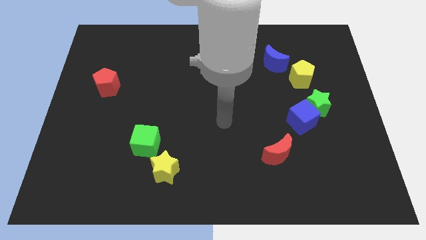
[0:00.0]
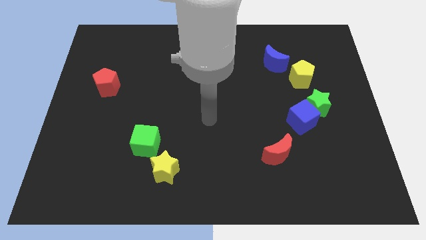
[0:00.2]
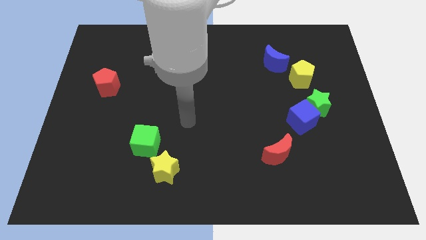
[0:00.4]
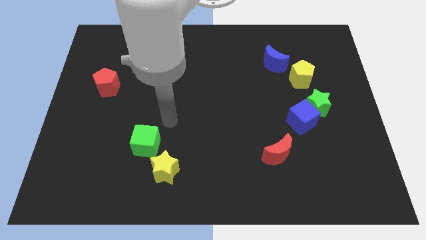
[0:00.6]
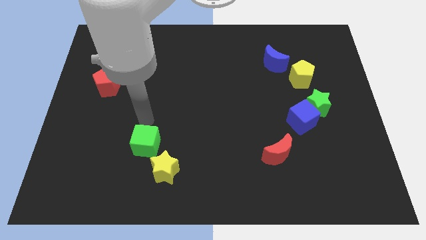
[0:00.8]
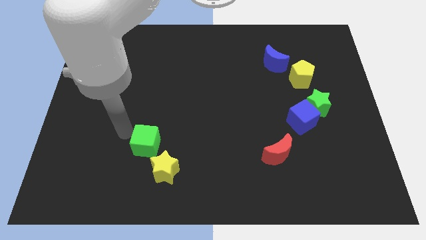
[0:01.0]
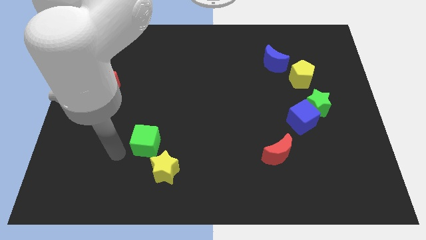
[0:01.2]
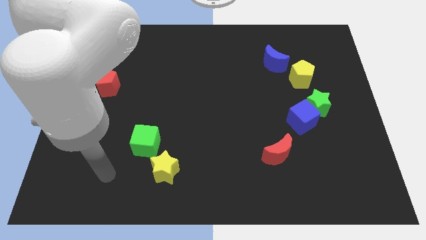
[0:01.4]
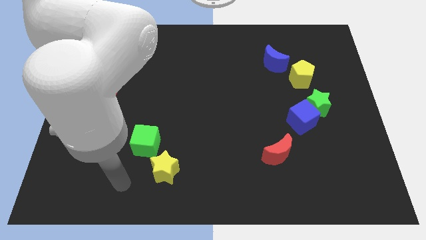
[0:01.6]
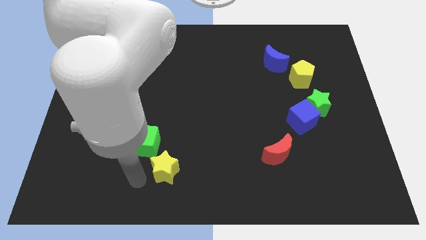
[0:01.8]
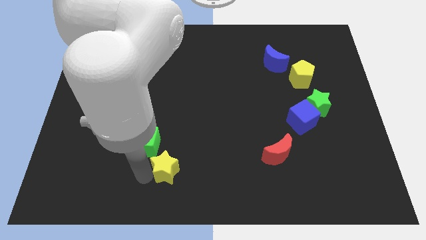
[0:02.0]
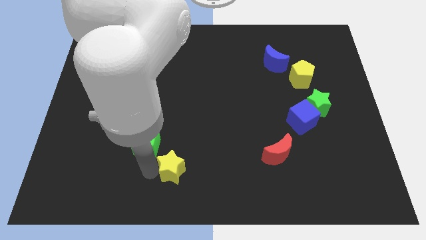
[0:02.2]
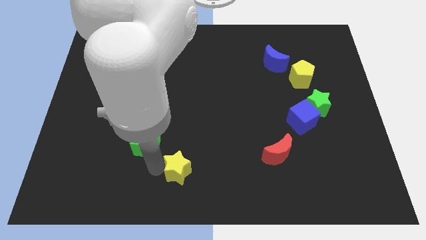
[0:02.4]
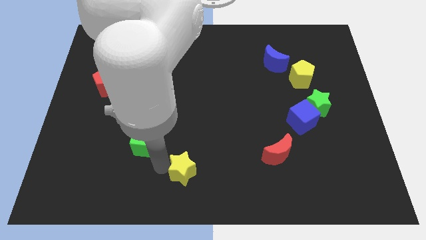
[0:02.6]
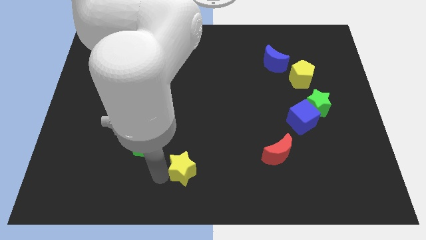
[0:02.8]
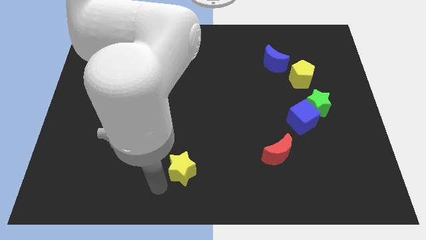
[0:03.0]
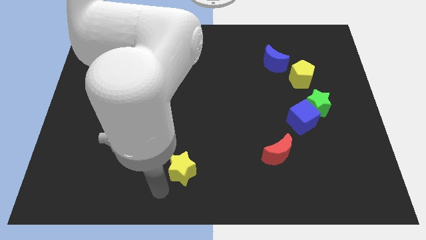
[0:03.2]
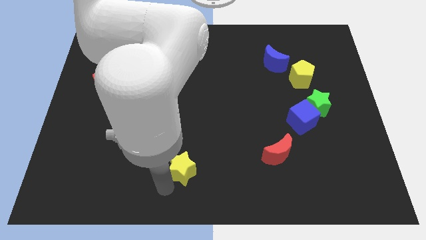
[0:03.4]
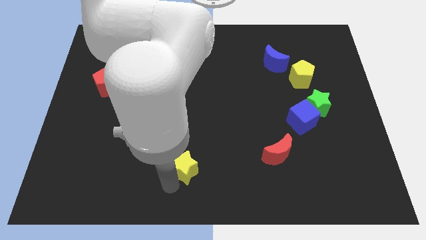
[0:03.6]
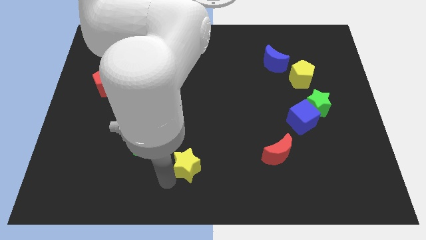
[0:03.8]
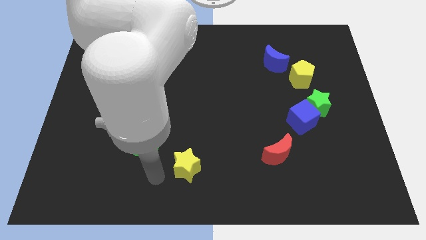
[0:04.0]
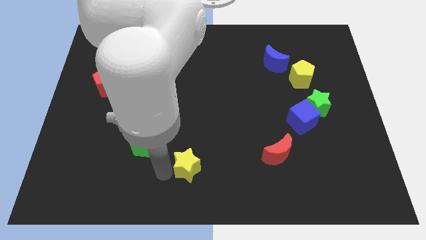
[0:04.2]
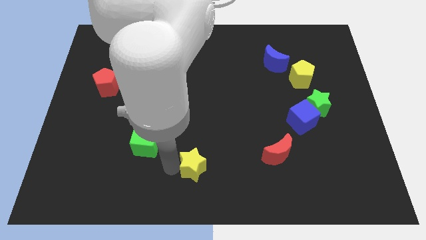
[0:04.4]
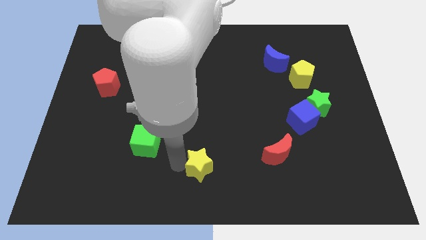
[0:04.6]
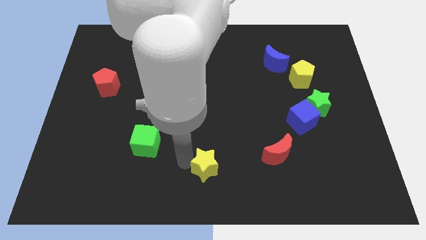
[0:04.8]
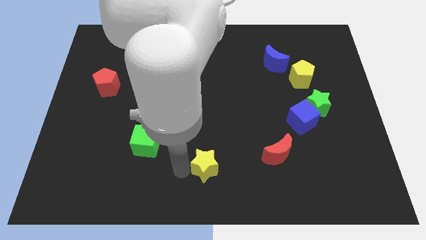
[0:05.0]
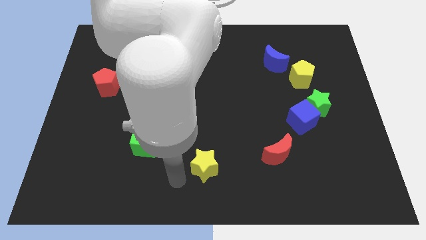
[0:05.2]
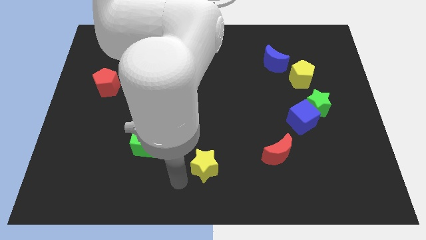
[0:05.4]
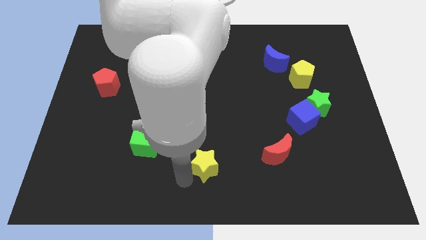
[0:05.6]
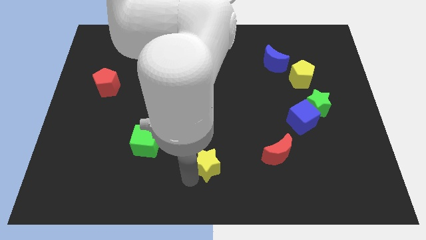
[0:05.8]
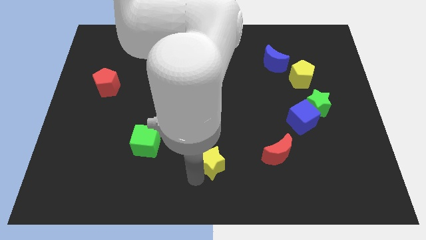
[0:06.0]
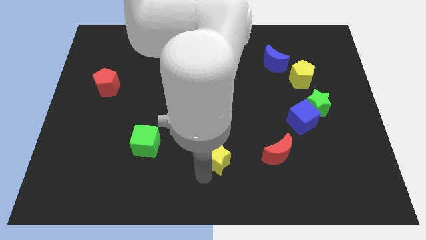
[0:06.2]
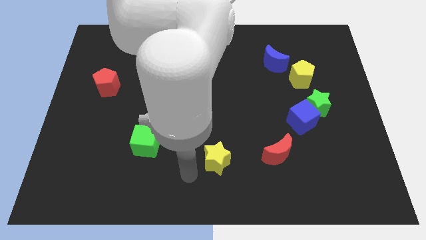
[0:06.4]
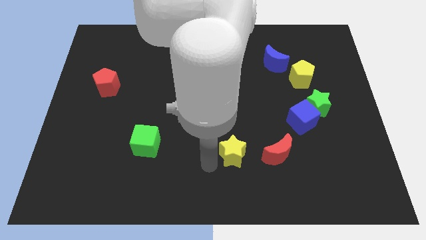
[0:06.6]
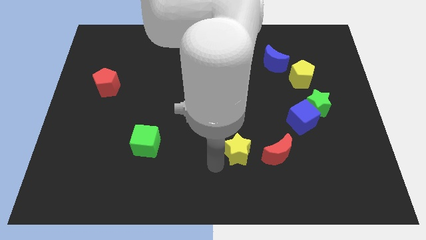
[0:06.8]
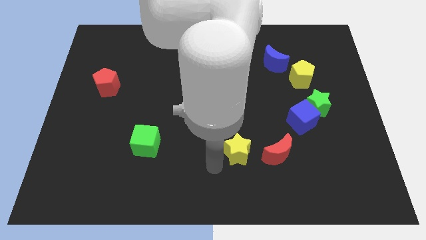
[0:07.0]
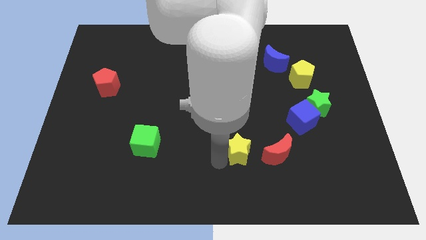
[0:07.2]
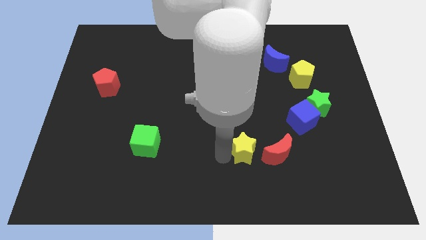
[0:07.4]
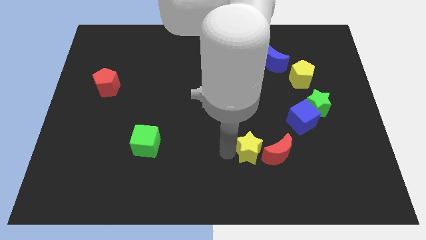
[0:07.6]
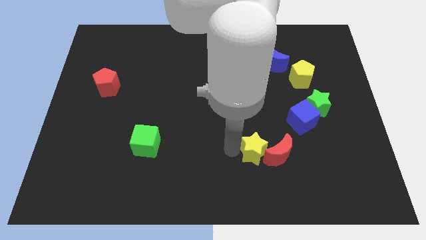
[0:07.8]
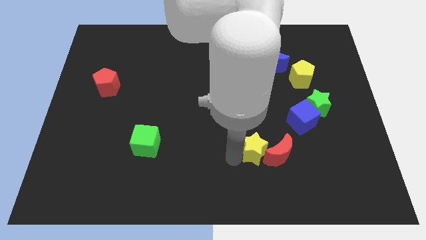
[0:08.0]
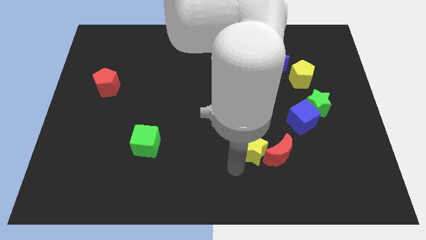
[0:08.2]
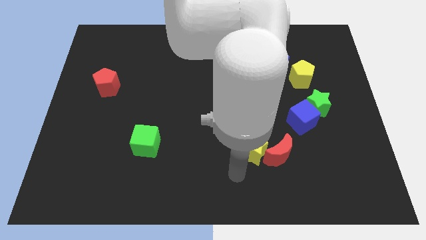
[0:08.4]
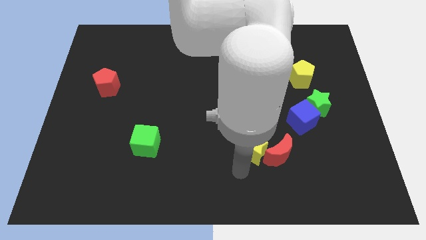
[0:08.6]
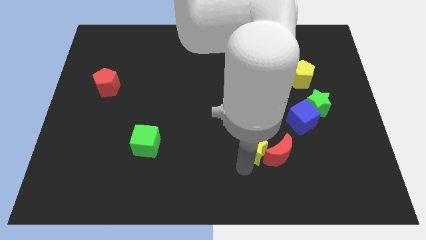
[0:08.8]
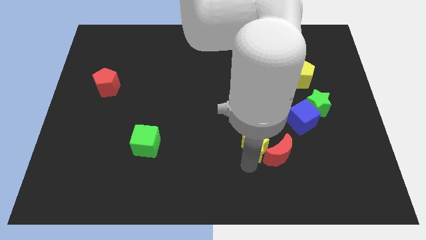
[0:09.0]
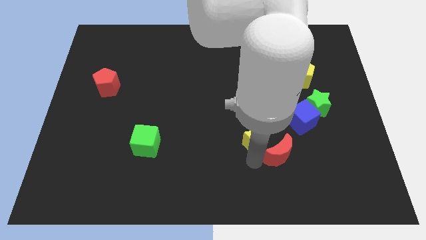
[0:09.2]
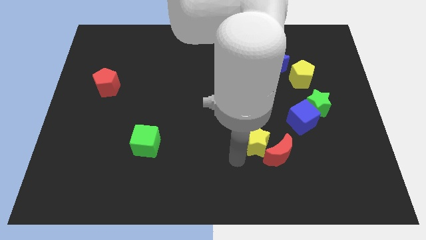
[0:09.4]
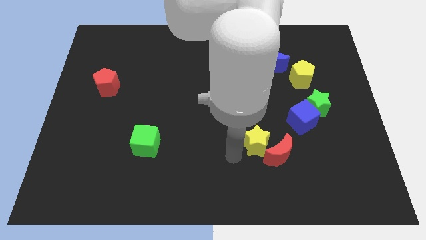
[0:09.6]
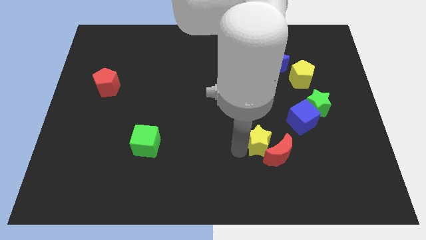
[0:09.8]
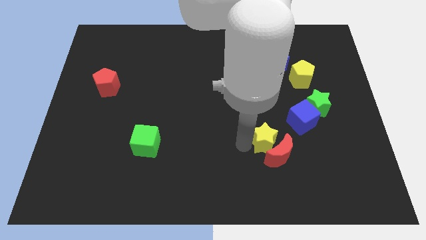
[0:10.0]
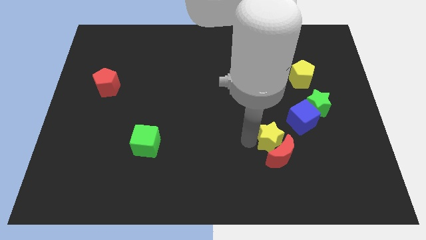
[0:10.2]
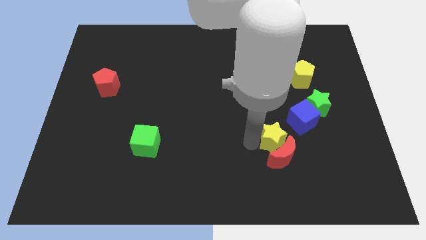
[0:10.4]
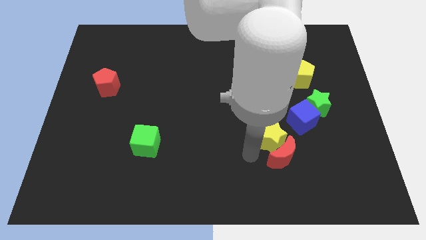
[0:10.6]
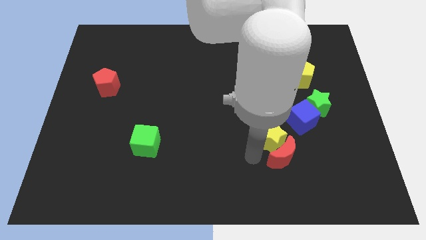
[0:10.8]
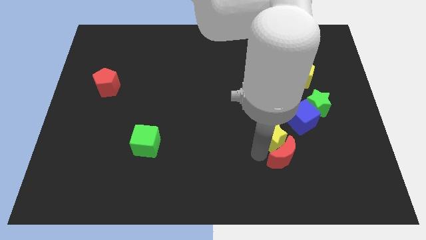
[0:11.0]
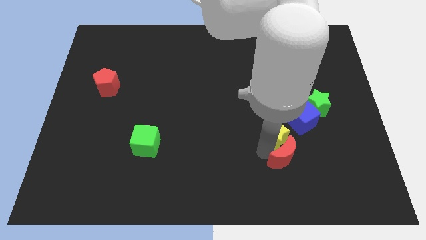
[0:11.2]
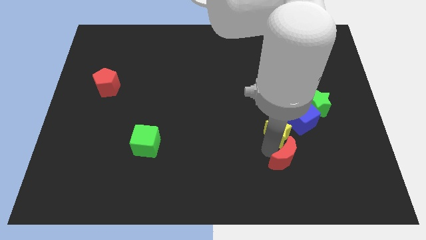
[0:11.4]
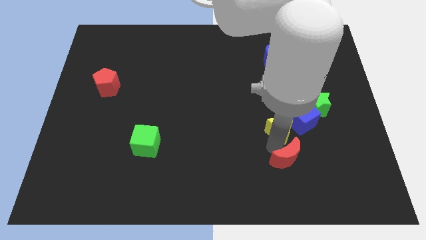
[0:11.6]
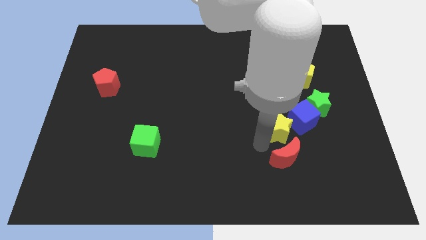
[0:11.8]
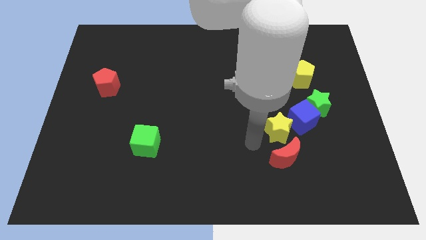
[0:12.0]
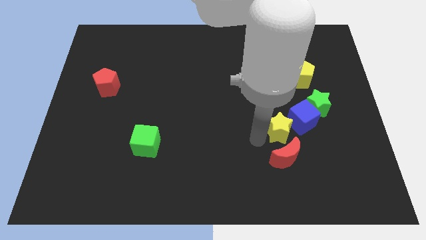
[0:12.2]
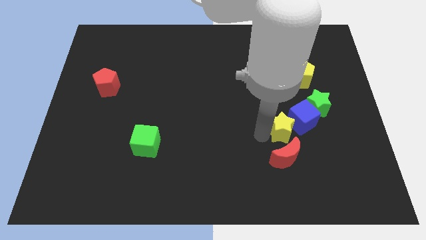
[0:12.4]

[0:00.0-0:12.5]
slide the yellow star towards the blue cube

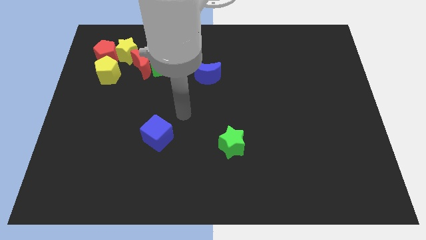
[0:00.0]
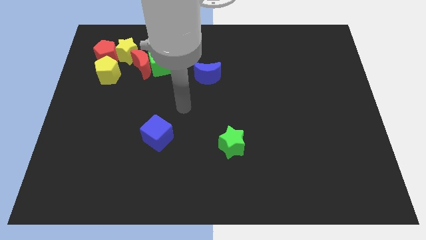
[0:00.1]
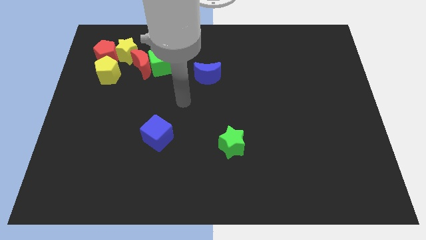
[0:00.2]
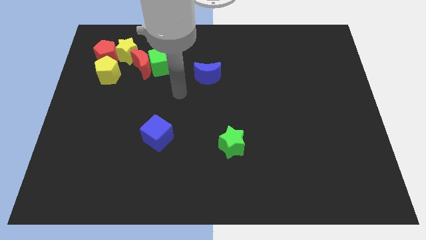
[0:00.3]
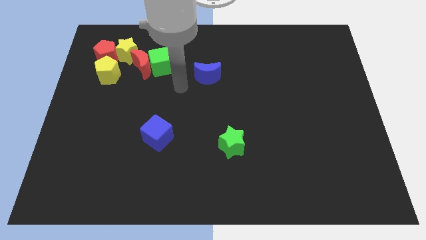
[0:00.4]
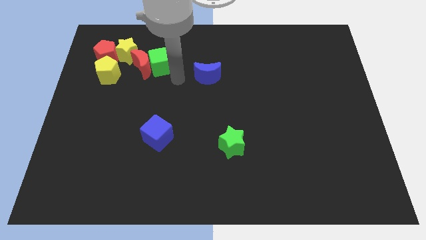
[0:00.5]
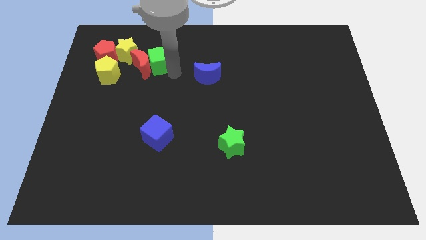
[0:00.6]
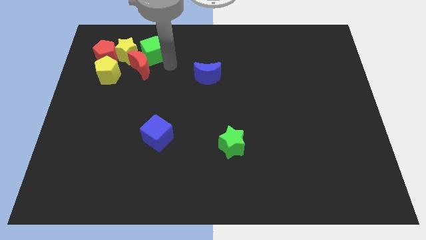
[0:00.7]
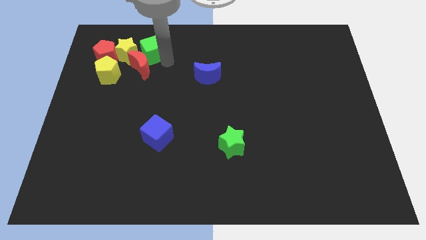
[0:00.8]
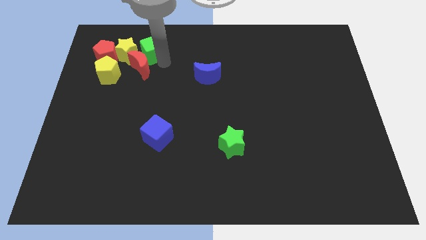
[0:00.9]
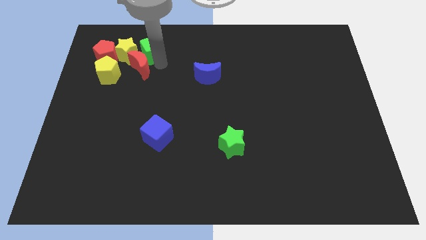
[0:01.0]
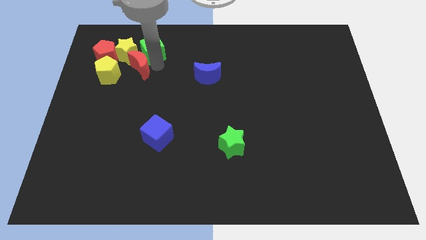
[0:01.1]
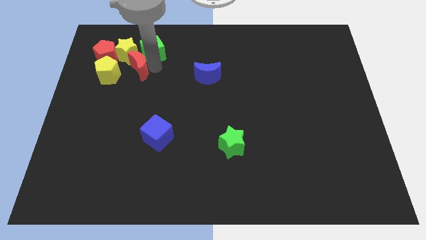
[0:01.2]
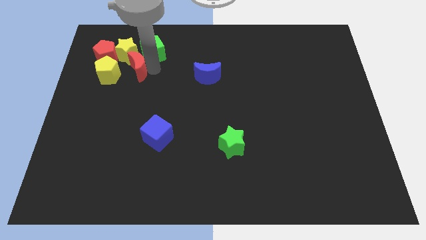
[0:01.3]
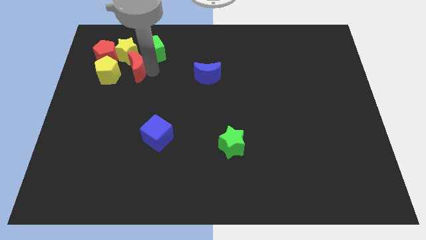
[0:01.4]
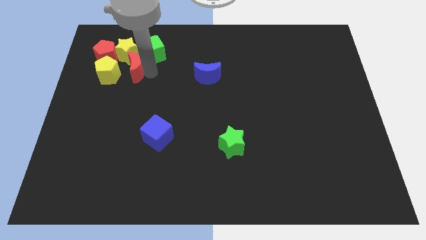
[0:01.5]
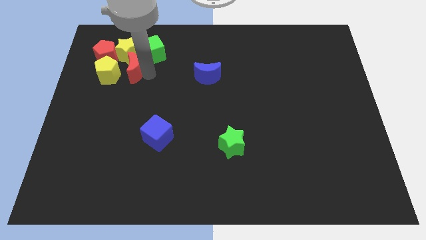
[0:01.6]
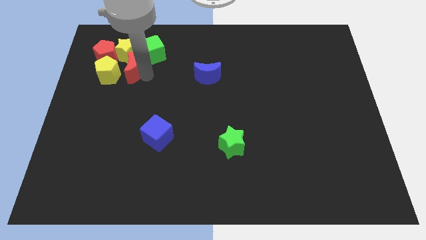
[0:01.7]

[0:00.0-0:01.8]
slide the red moon to the yellow pentagon

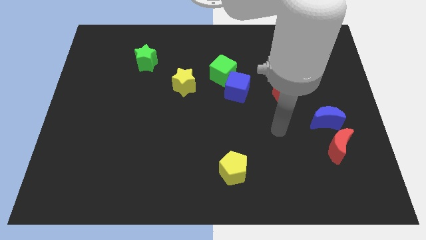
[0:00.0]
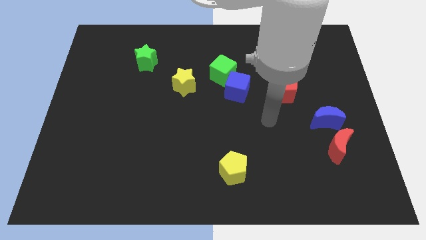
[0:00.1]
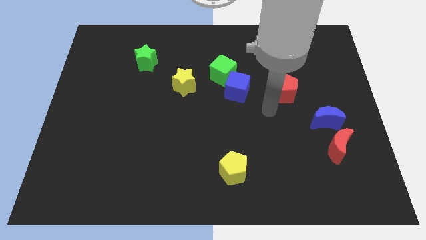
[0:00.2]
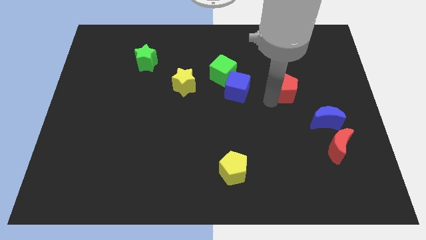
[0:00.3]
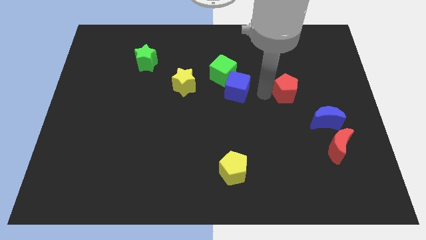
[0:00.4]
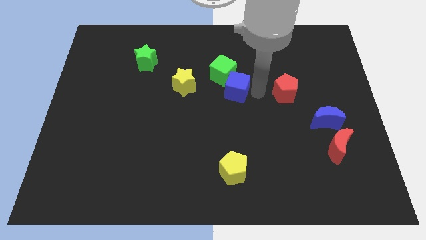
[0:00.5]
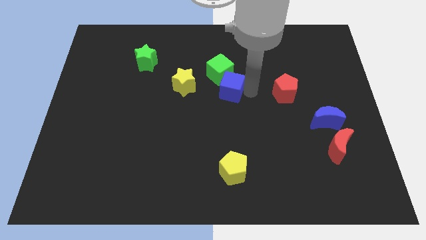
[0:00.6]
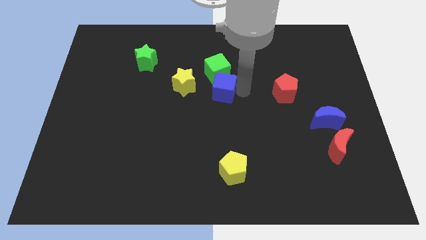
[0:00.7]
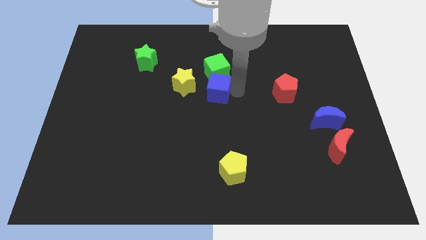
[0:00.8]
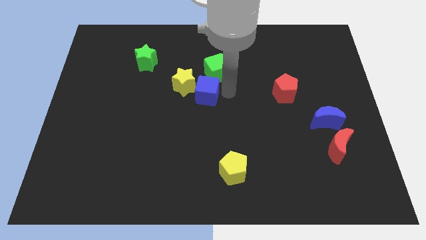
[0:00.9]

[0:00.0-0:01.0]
slide the blue cube to the yellow star
